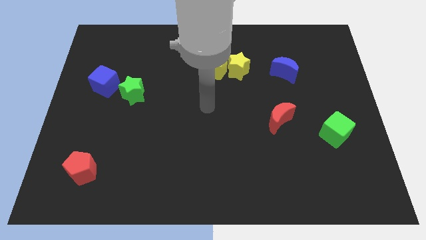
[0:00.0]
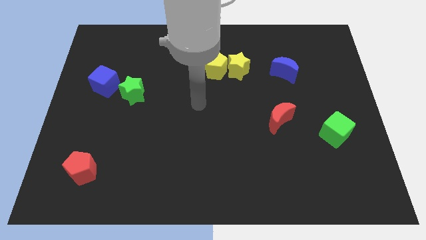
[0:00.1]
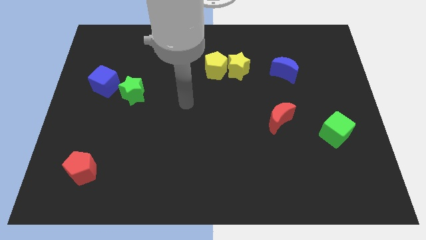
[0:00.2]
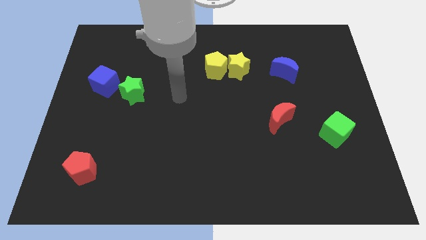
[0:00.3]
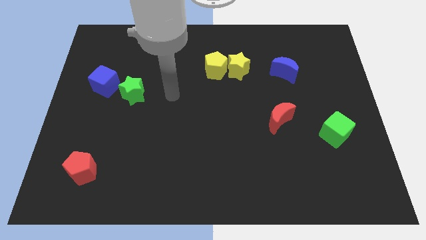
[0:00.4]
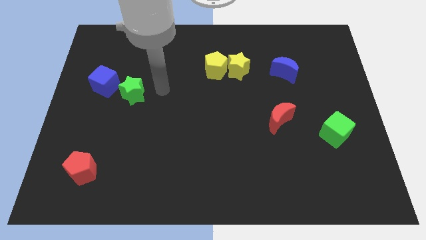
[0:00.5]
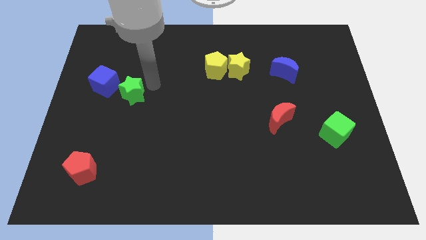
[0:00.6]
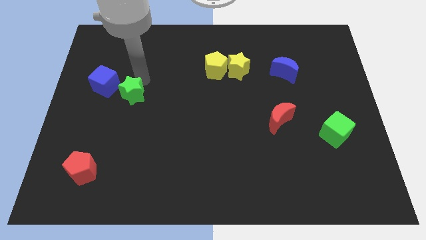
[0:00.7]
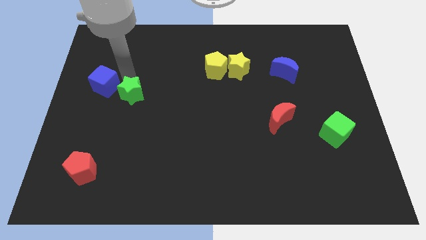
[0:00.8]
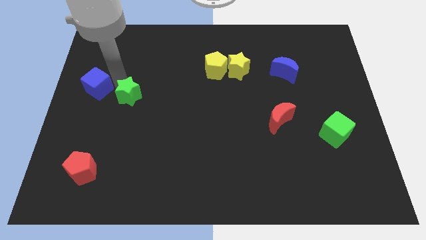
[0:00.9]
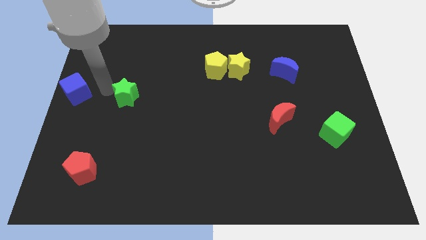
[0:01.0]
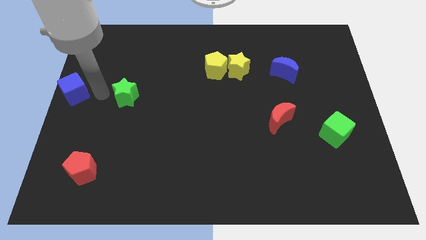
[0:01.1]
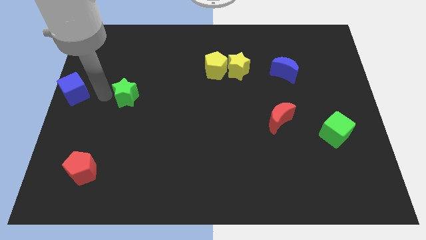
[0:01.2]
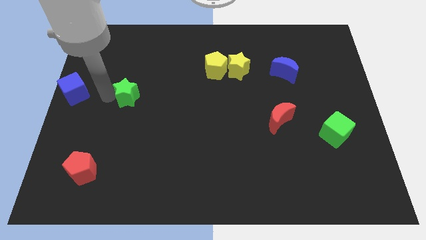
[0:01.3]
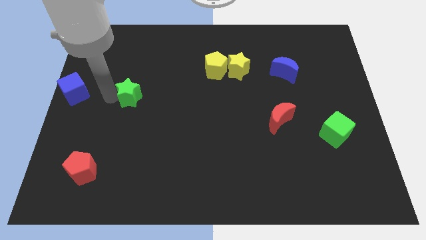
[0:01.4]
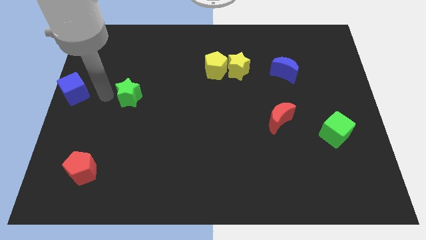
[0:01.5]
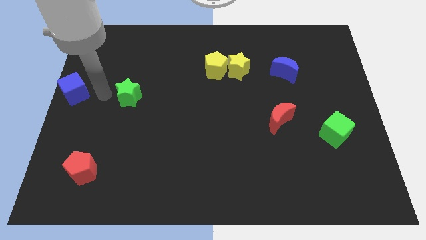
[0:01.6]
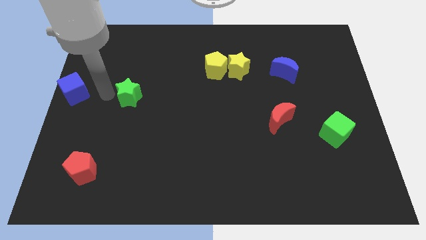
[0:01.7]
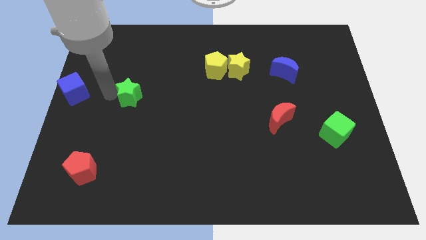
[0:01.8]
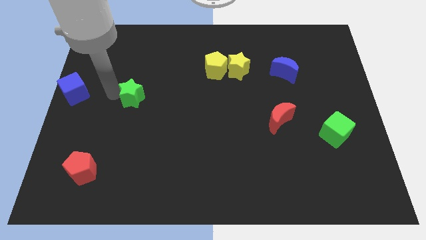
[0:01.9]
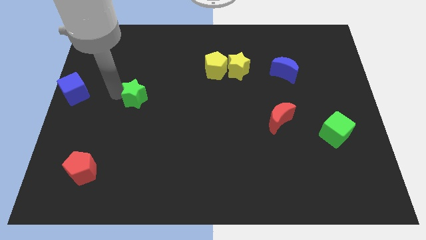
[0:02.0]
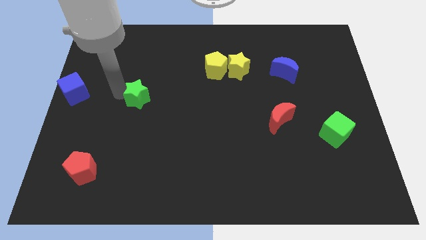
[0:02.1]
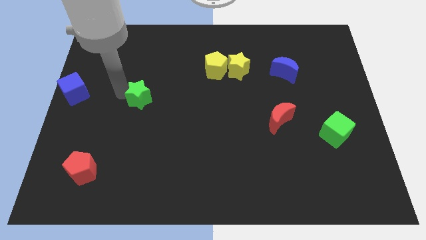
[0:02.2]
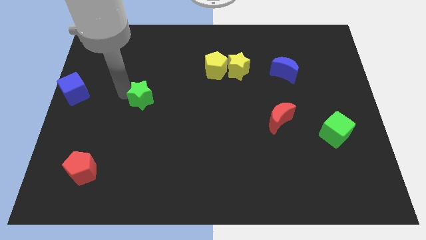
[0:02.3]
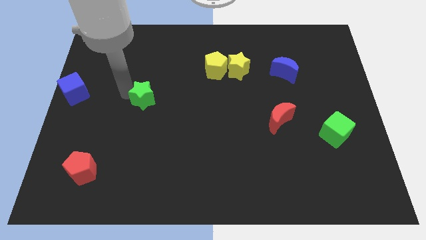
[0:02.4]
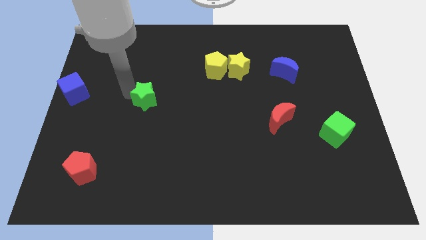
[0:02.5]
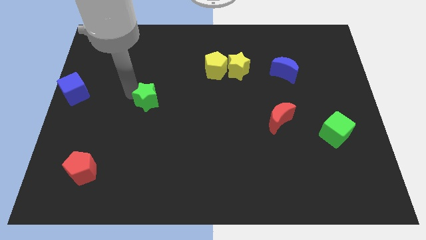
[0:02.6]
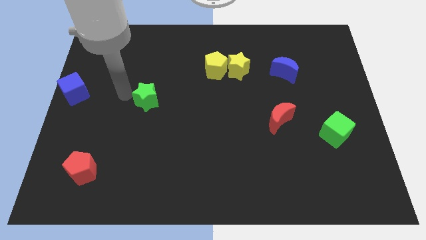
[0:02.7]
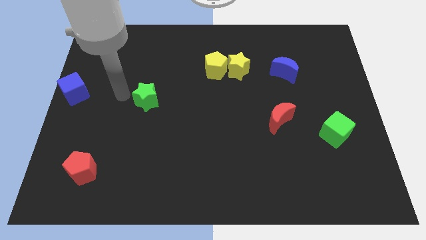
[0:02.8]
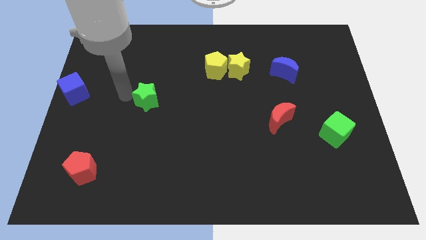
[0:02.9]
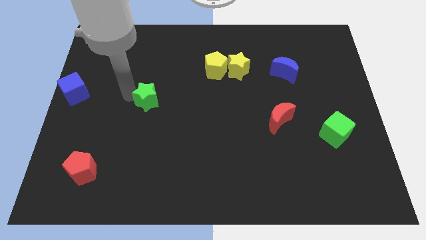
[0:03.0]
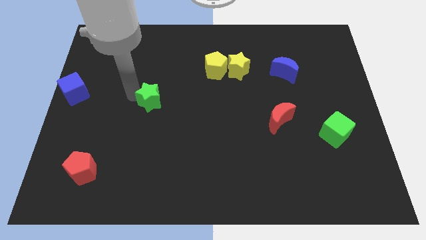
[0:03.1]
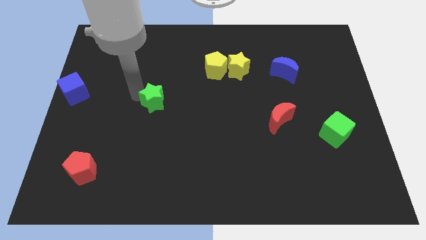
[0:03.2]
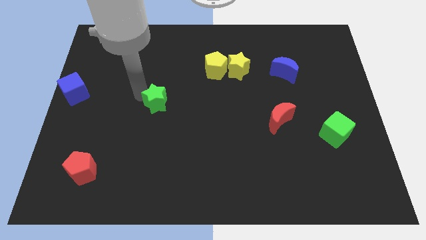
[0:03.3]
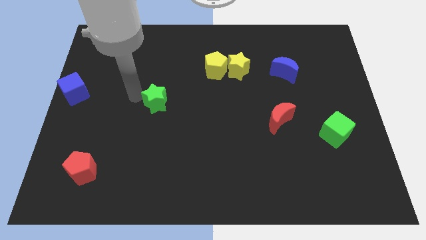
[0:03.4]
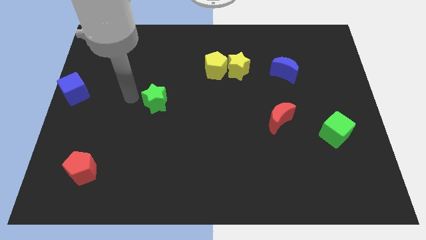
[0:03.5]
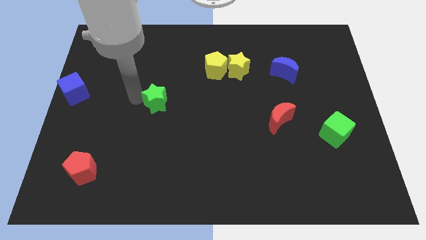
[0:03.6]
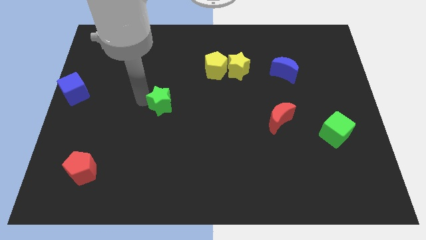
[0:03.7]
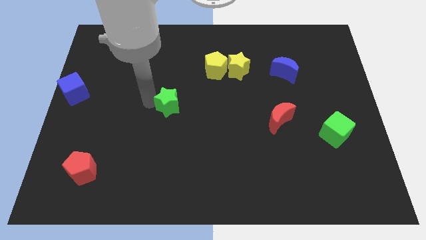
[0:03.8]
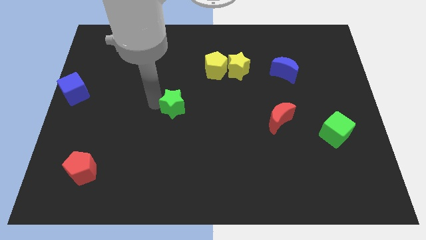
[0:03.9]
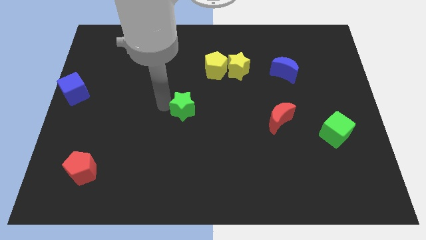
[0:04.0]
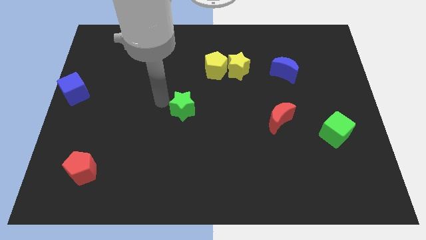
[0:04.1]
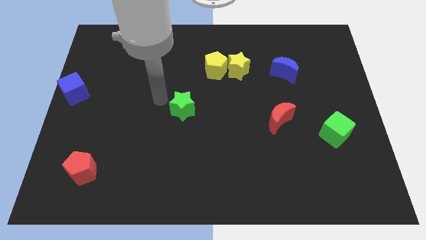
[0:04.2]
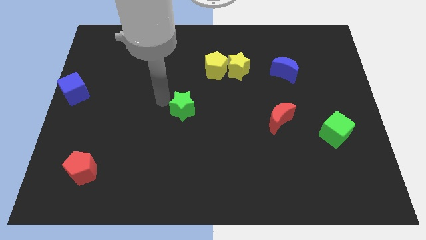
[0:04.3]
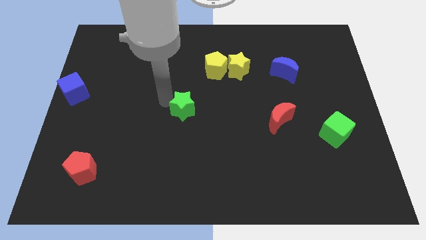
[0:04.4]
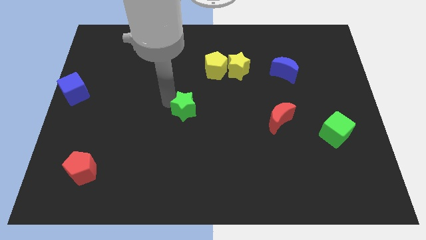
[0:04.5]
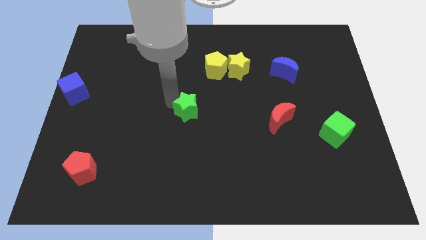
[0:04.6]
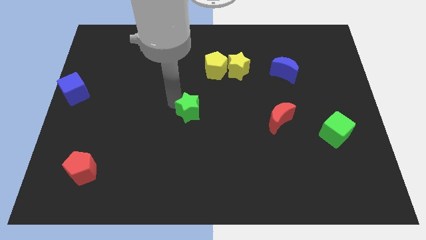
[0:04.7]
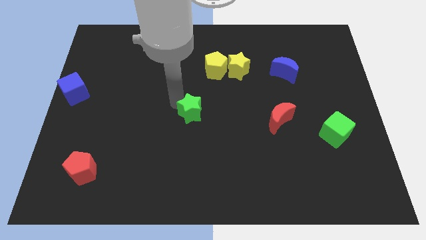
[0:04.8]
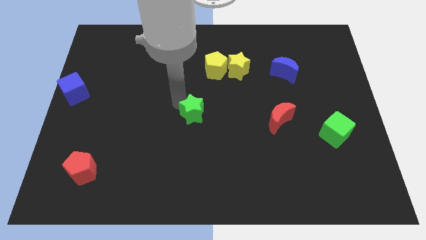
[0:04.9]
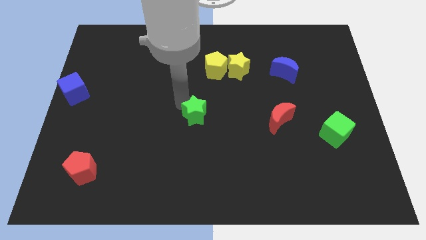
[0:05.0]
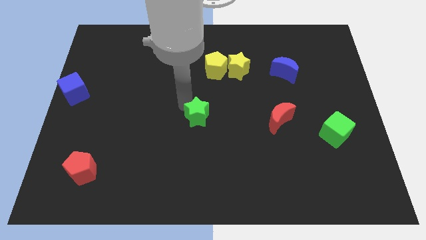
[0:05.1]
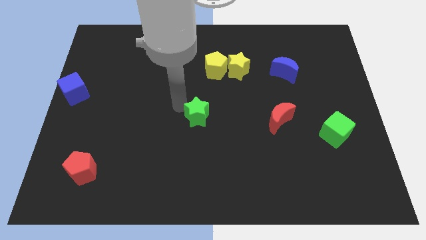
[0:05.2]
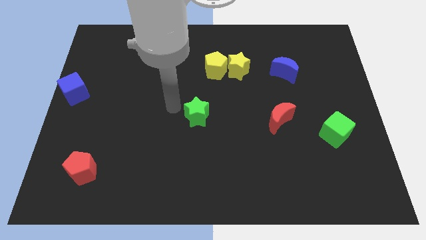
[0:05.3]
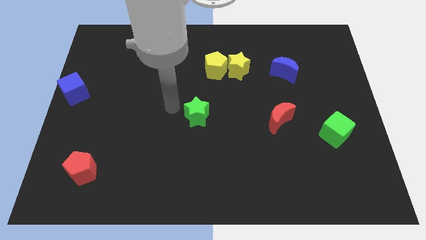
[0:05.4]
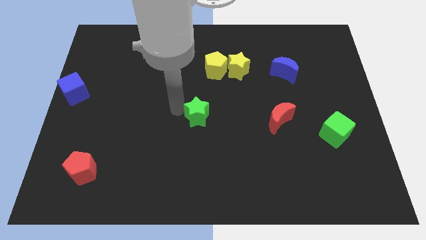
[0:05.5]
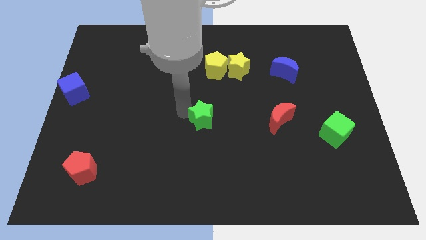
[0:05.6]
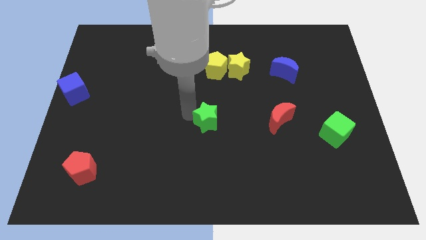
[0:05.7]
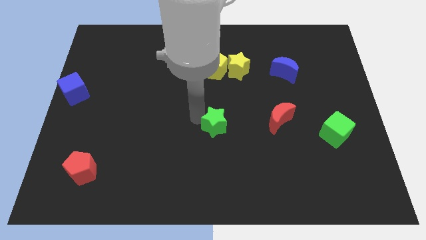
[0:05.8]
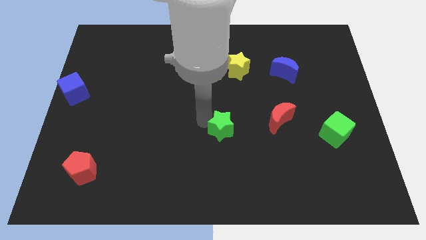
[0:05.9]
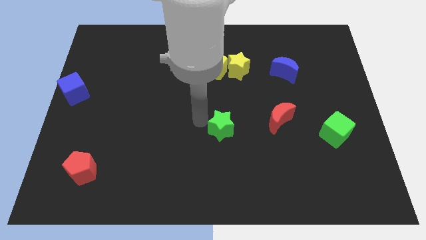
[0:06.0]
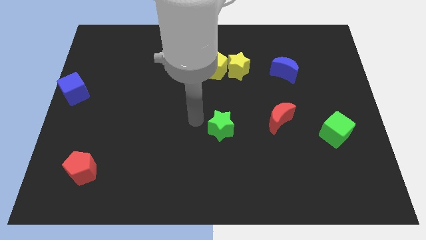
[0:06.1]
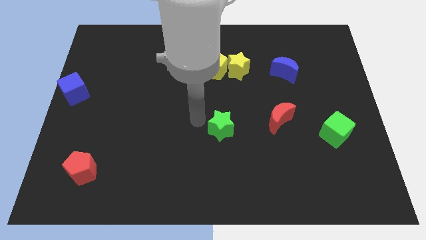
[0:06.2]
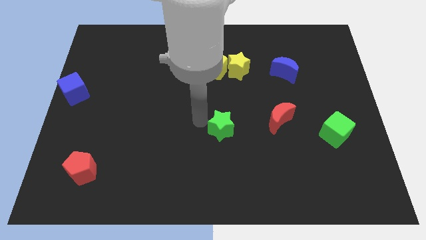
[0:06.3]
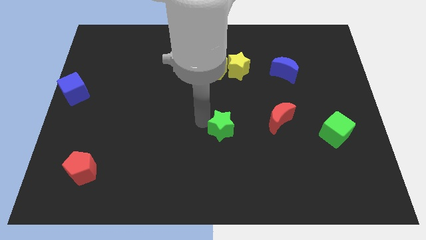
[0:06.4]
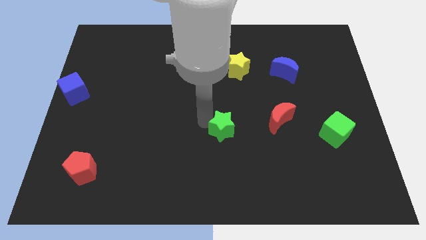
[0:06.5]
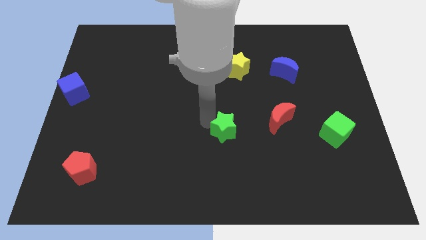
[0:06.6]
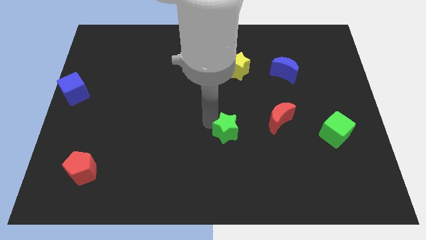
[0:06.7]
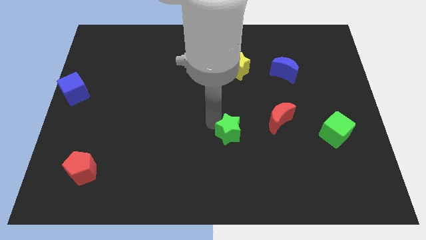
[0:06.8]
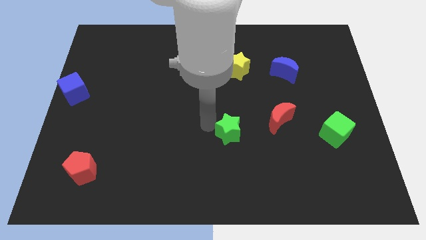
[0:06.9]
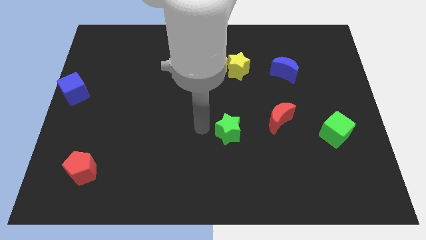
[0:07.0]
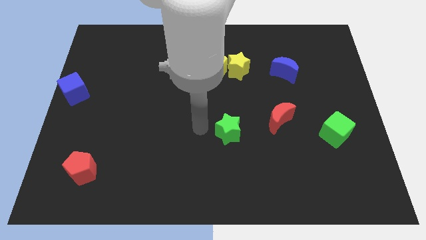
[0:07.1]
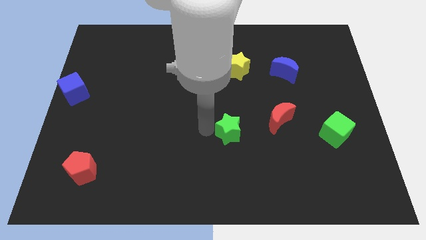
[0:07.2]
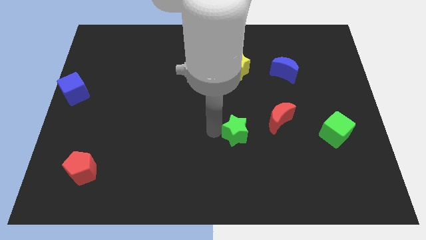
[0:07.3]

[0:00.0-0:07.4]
push the green star diagonally down and to the left of the red moon
